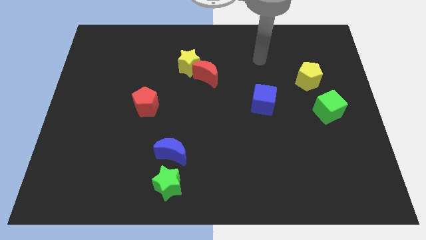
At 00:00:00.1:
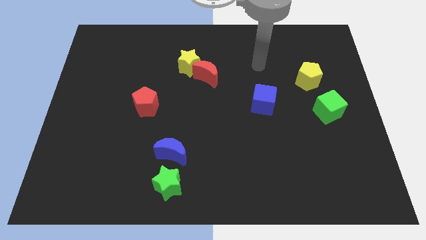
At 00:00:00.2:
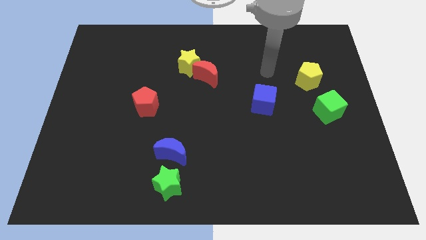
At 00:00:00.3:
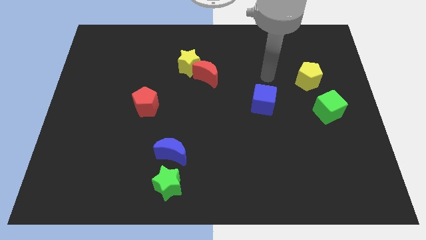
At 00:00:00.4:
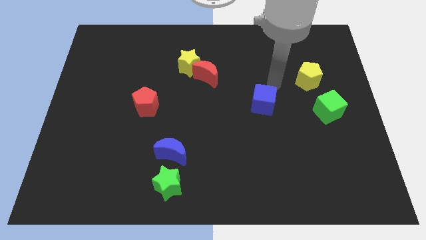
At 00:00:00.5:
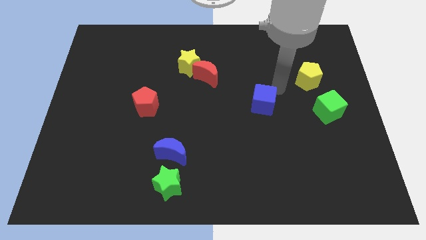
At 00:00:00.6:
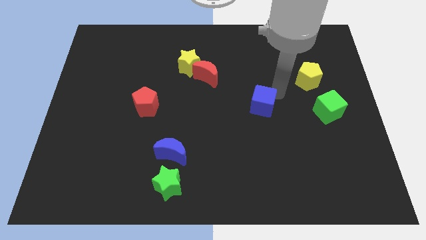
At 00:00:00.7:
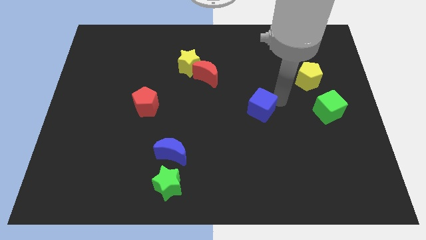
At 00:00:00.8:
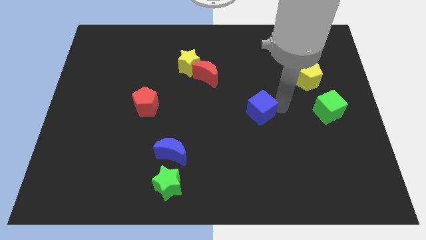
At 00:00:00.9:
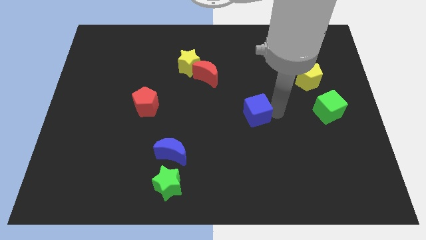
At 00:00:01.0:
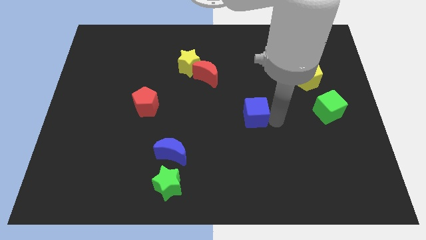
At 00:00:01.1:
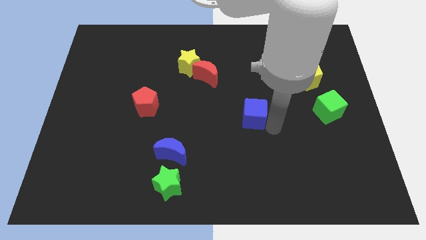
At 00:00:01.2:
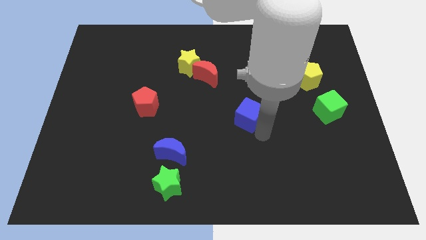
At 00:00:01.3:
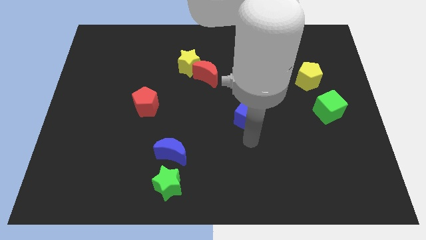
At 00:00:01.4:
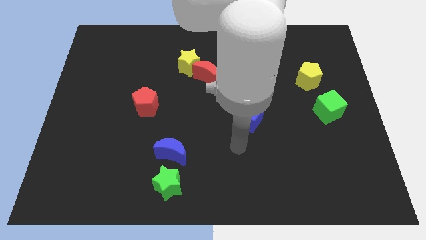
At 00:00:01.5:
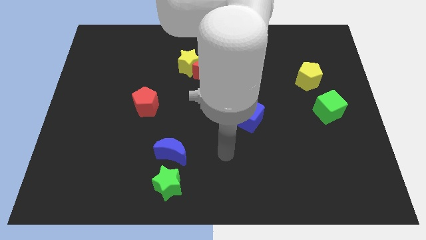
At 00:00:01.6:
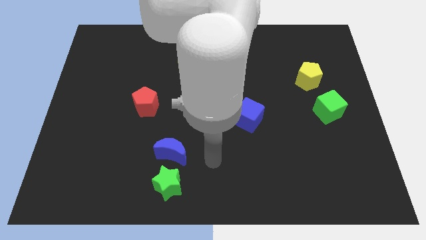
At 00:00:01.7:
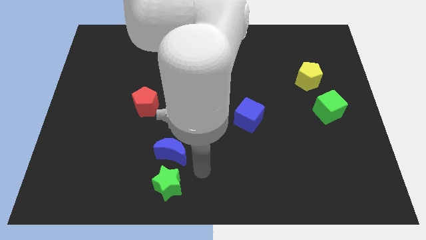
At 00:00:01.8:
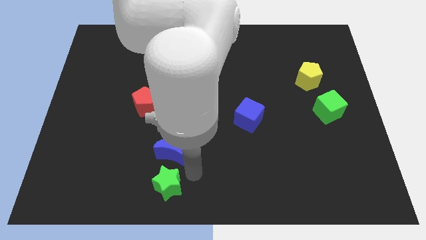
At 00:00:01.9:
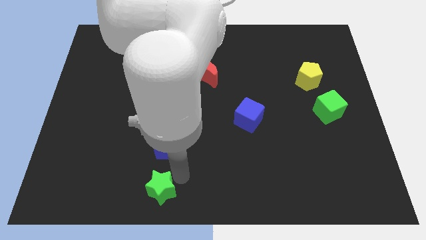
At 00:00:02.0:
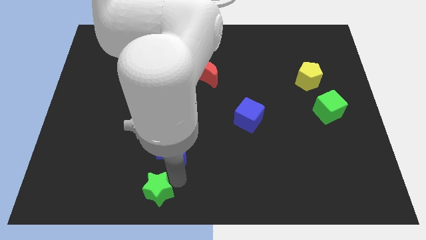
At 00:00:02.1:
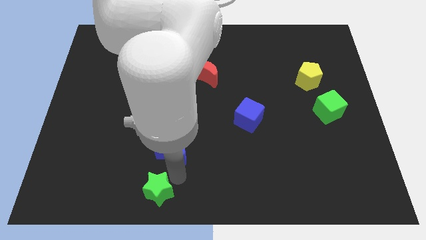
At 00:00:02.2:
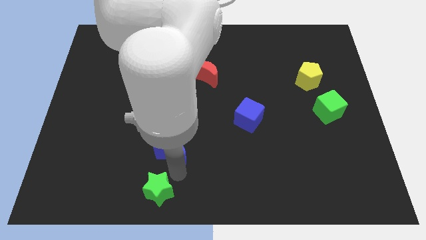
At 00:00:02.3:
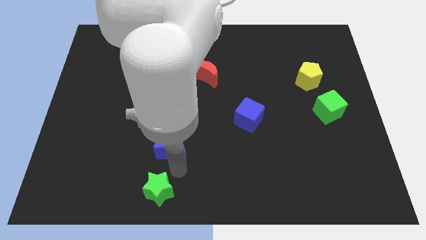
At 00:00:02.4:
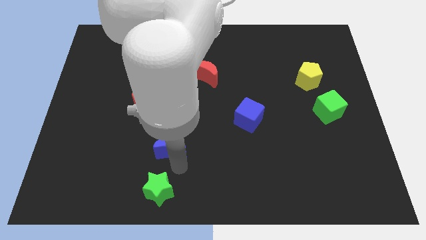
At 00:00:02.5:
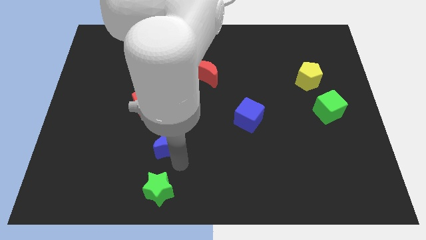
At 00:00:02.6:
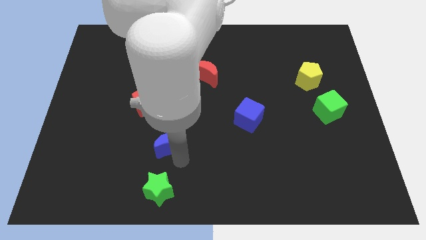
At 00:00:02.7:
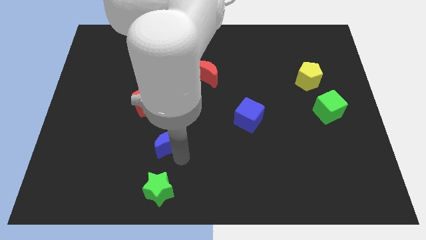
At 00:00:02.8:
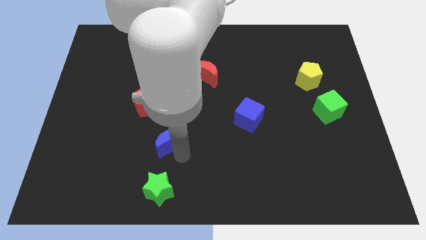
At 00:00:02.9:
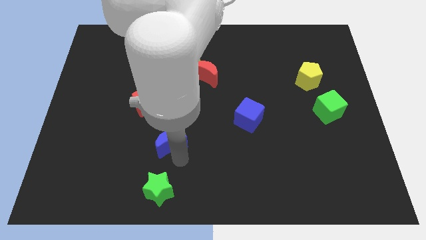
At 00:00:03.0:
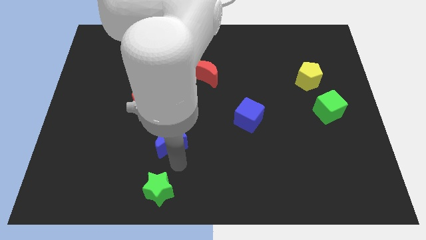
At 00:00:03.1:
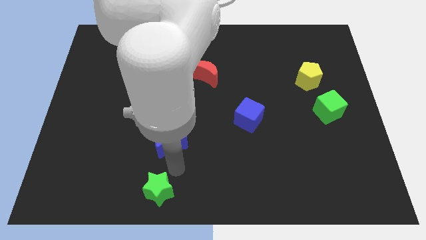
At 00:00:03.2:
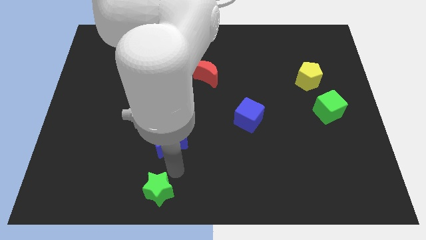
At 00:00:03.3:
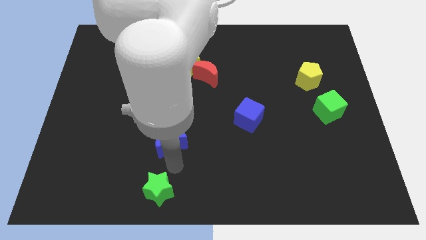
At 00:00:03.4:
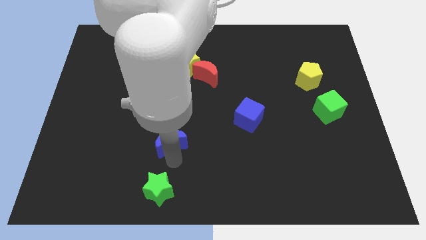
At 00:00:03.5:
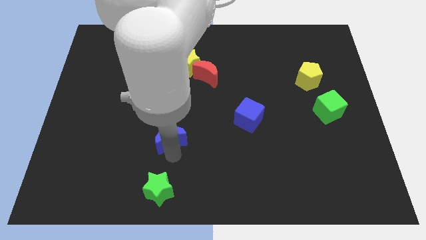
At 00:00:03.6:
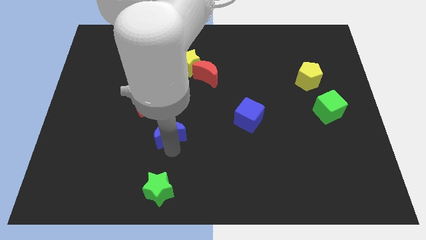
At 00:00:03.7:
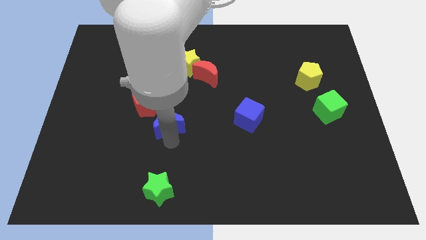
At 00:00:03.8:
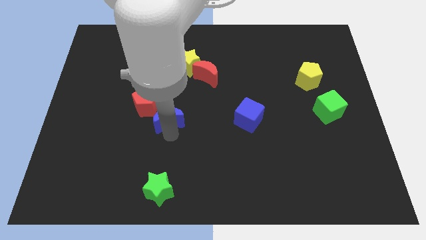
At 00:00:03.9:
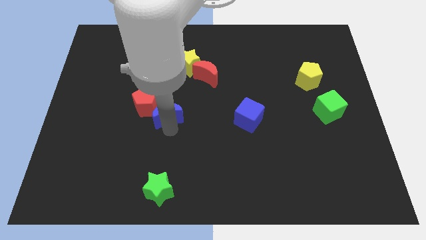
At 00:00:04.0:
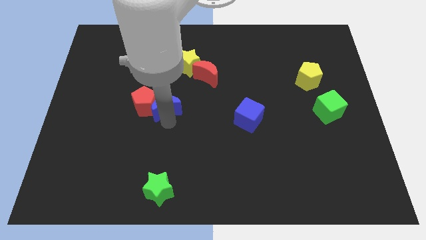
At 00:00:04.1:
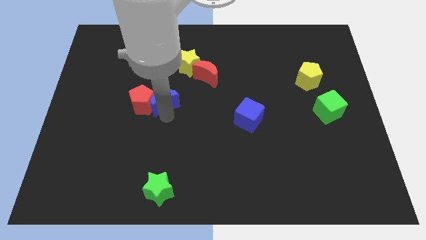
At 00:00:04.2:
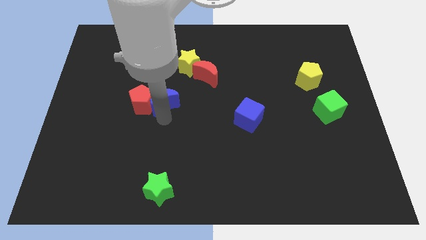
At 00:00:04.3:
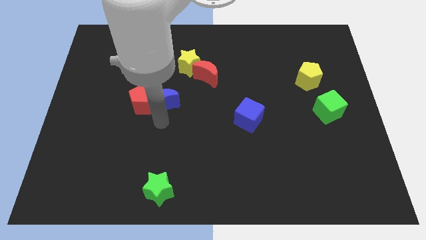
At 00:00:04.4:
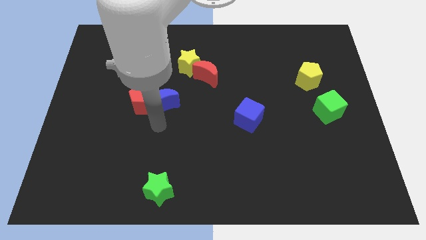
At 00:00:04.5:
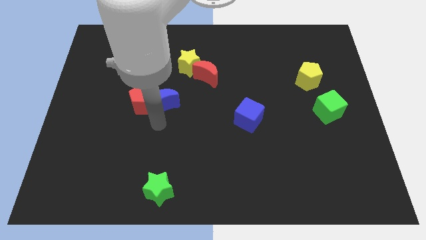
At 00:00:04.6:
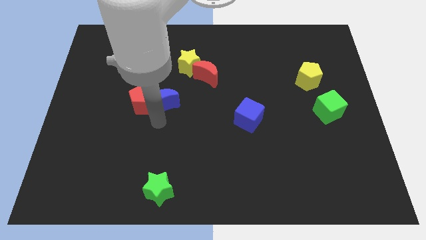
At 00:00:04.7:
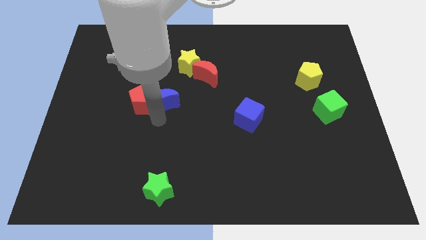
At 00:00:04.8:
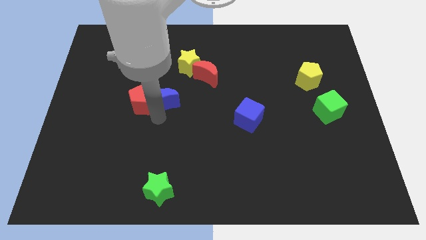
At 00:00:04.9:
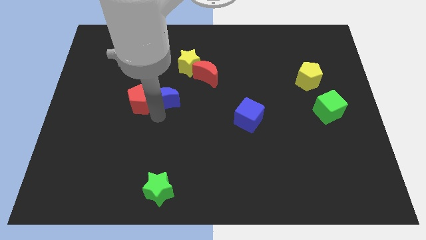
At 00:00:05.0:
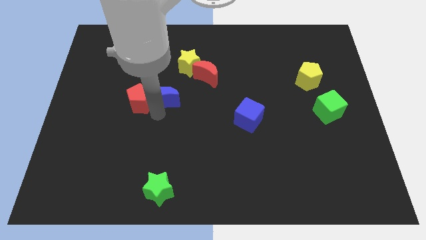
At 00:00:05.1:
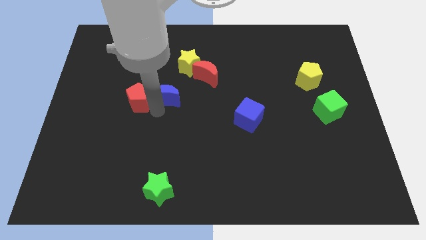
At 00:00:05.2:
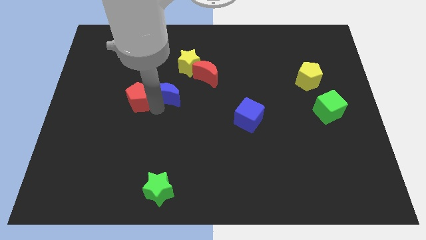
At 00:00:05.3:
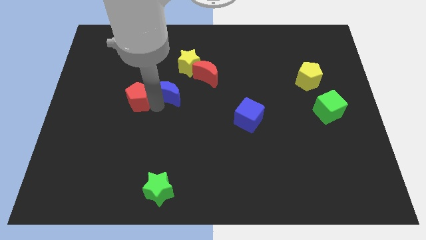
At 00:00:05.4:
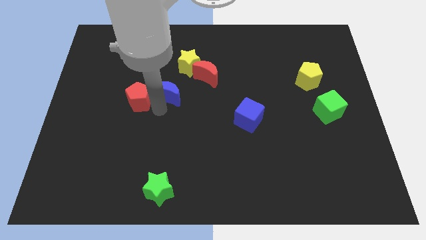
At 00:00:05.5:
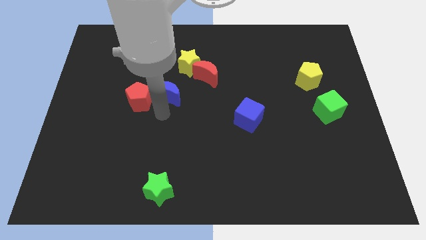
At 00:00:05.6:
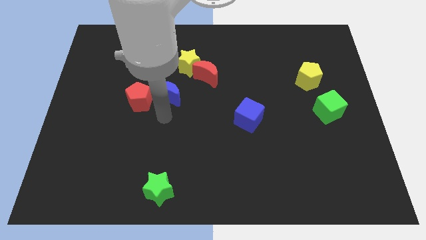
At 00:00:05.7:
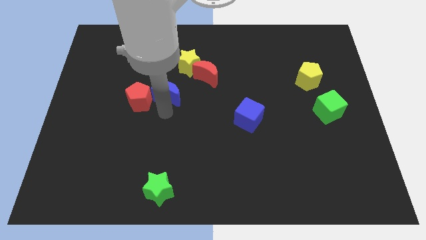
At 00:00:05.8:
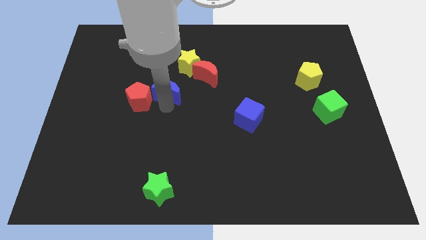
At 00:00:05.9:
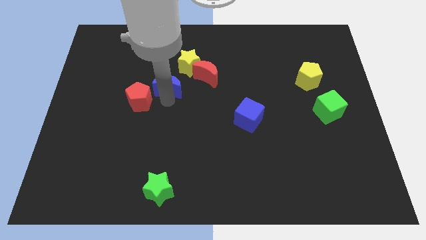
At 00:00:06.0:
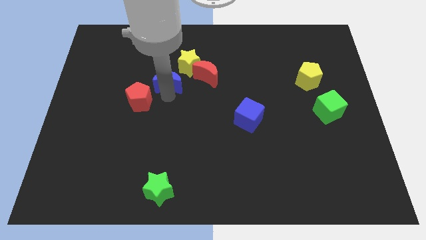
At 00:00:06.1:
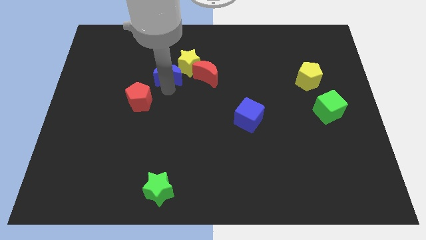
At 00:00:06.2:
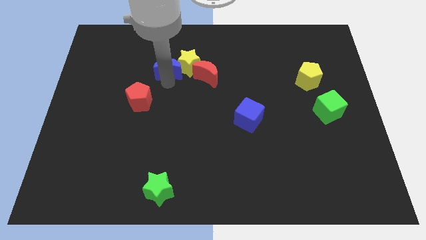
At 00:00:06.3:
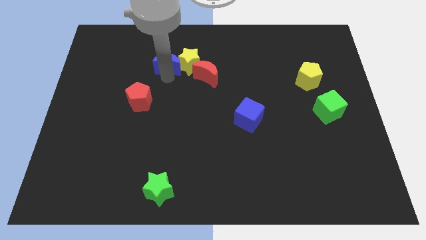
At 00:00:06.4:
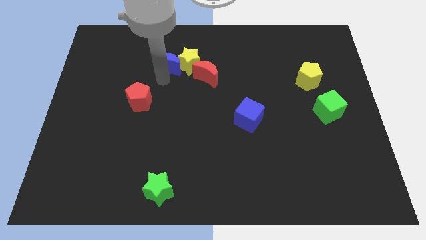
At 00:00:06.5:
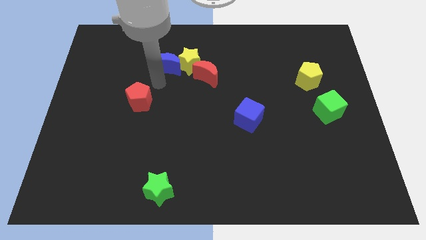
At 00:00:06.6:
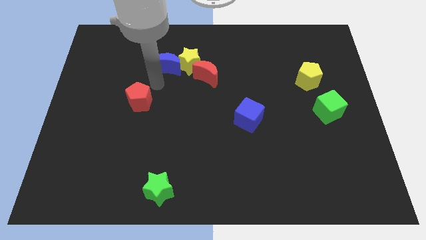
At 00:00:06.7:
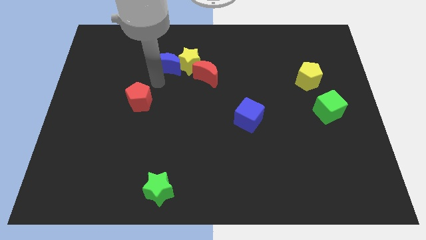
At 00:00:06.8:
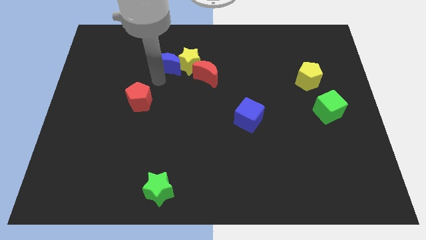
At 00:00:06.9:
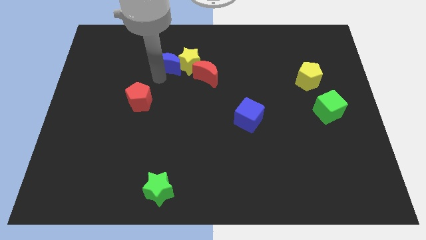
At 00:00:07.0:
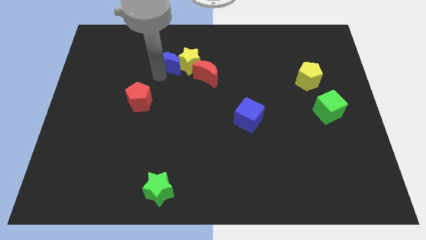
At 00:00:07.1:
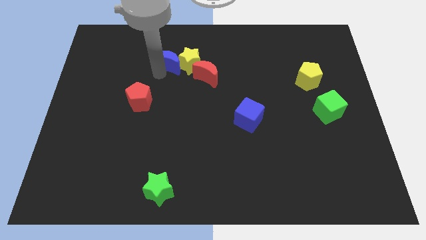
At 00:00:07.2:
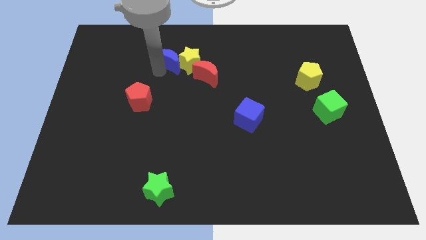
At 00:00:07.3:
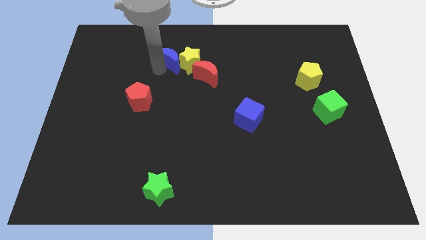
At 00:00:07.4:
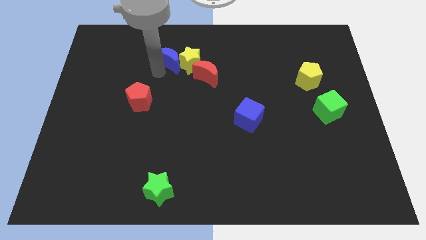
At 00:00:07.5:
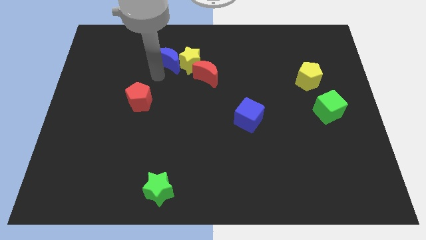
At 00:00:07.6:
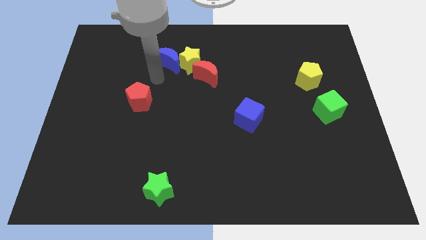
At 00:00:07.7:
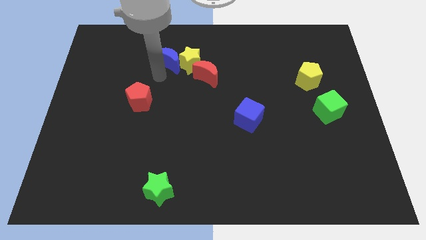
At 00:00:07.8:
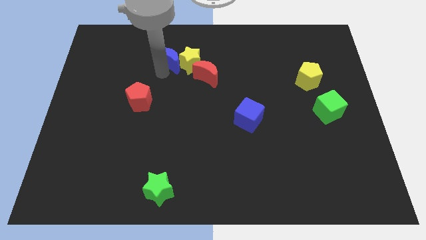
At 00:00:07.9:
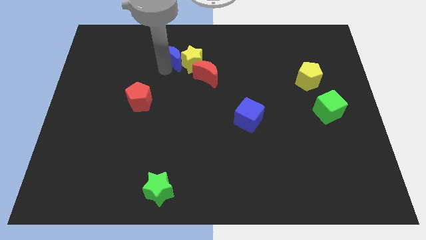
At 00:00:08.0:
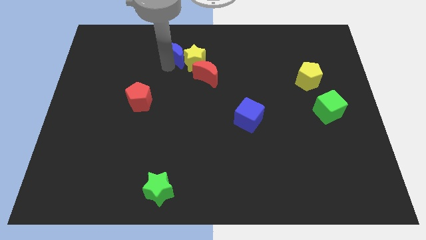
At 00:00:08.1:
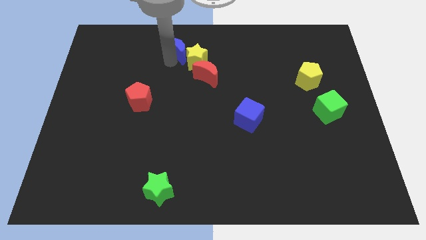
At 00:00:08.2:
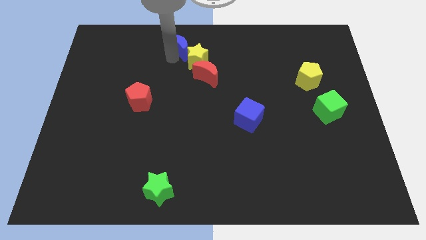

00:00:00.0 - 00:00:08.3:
put the blue moon to the towards your base
